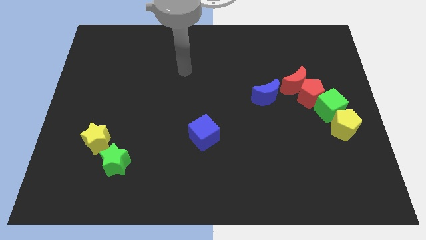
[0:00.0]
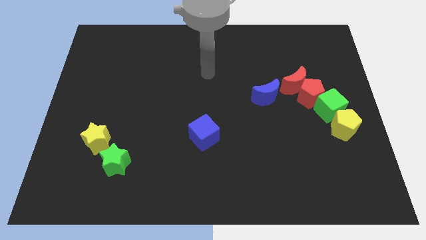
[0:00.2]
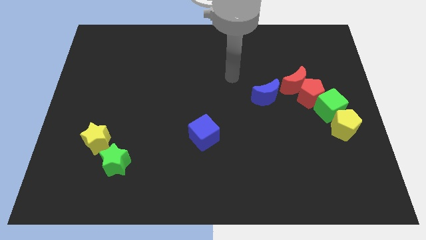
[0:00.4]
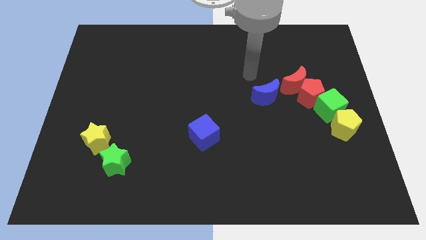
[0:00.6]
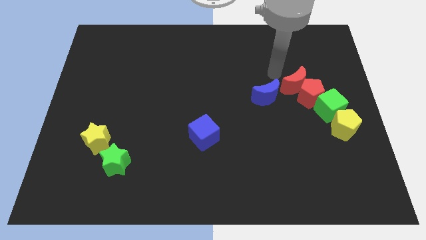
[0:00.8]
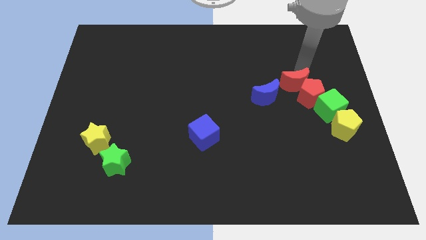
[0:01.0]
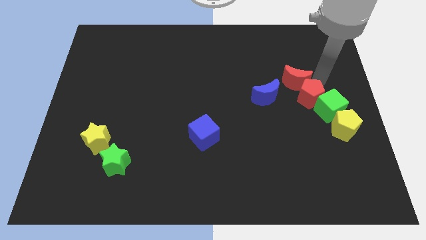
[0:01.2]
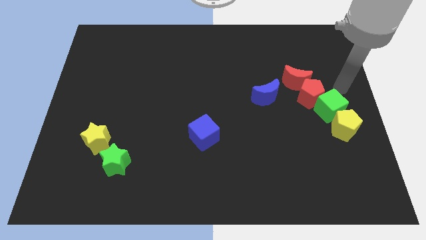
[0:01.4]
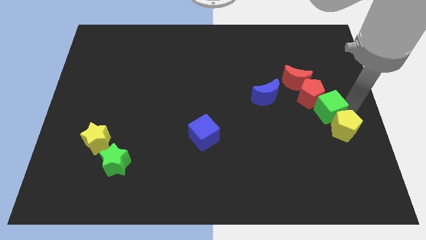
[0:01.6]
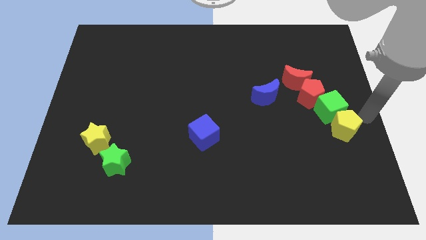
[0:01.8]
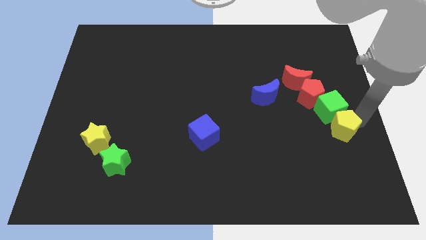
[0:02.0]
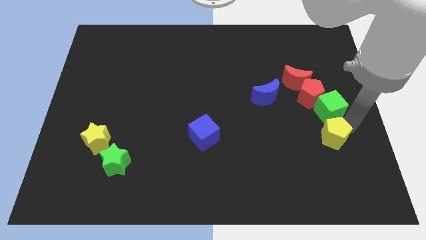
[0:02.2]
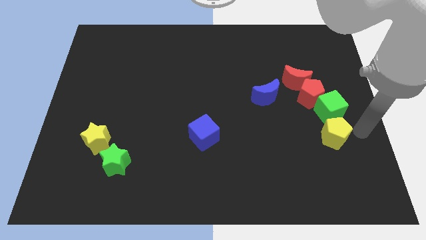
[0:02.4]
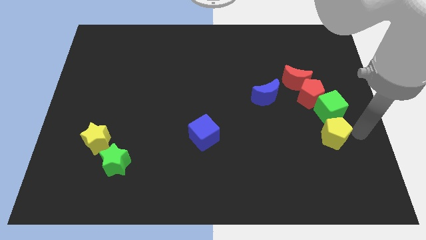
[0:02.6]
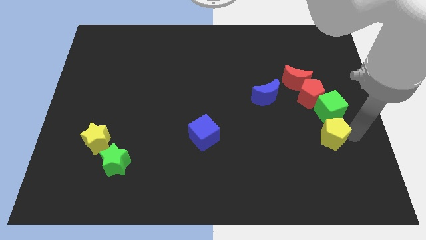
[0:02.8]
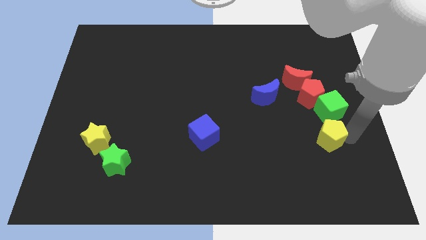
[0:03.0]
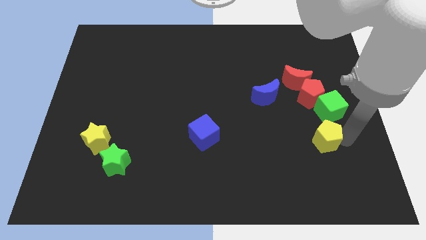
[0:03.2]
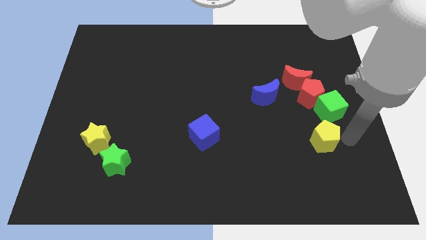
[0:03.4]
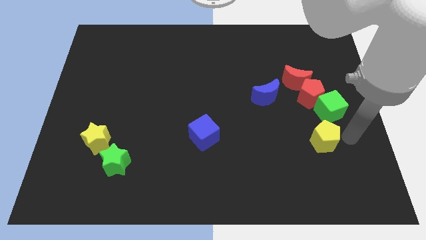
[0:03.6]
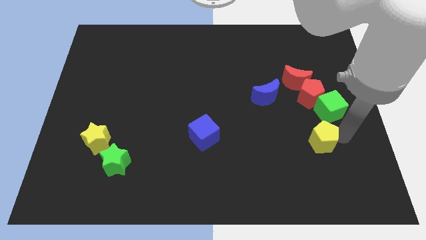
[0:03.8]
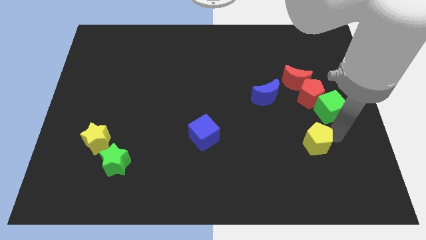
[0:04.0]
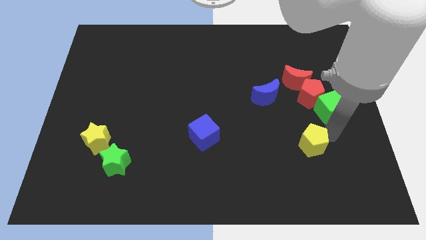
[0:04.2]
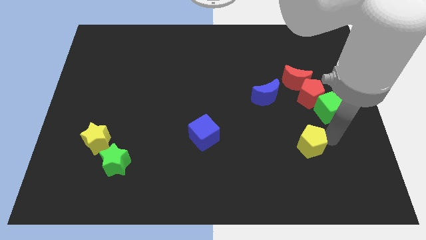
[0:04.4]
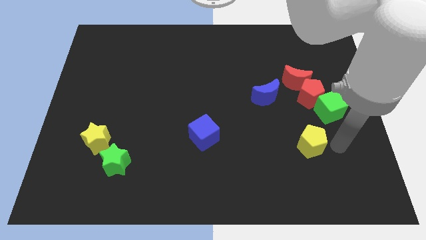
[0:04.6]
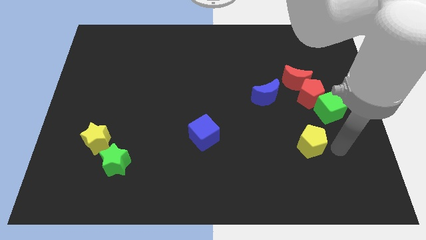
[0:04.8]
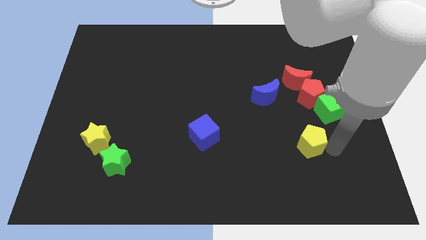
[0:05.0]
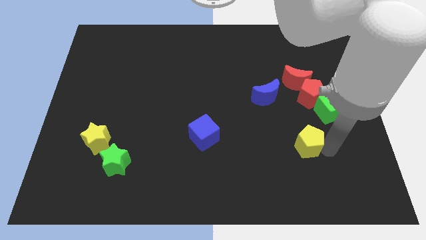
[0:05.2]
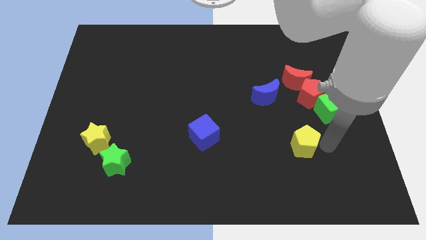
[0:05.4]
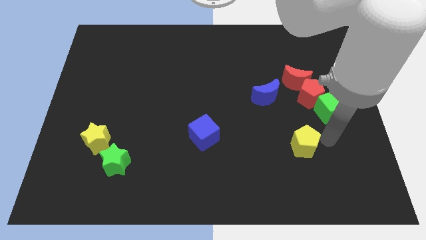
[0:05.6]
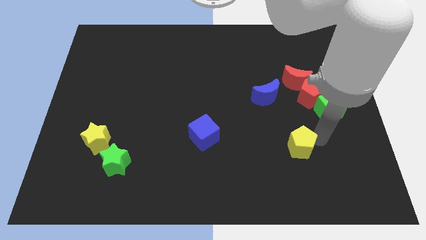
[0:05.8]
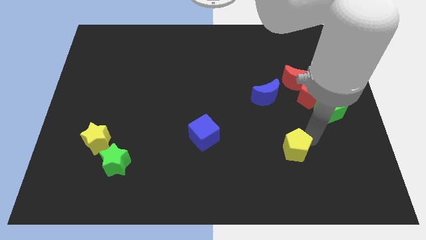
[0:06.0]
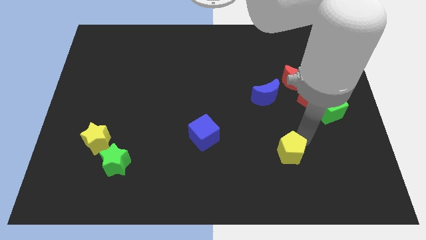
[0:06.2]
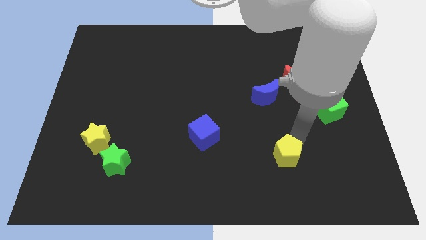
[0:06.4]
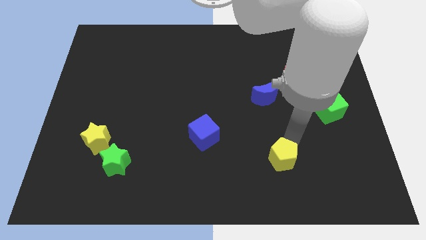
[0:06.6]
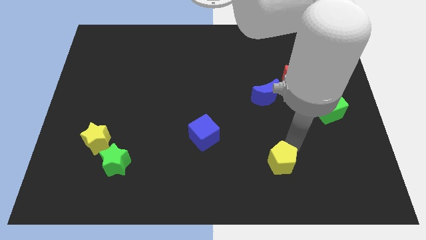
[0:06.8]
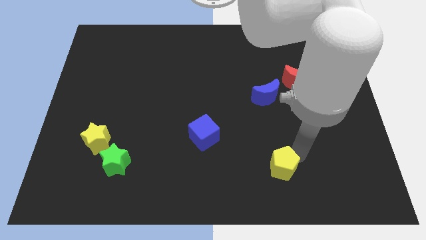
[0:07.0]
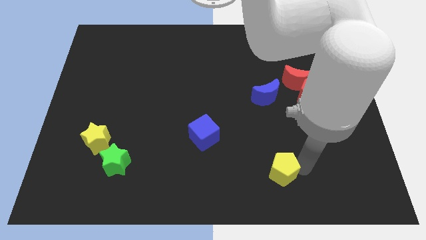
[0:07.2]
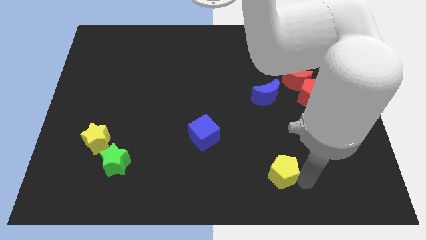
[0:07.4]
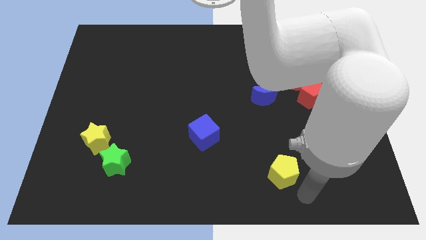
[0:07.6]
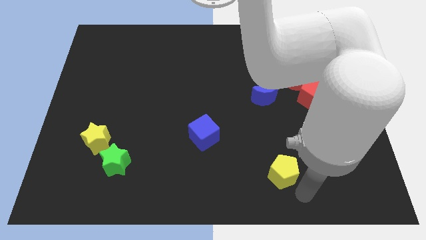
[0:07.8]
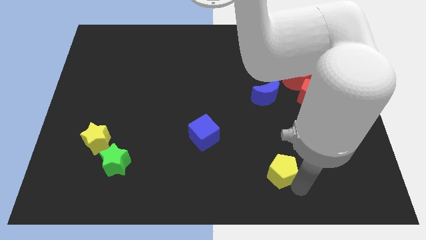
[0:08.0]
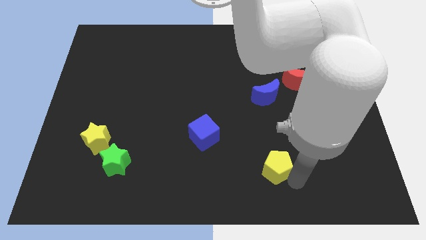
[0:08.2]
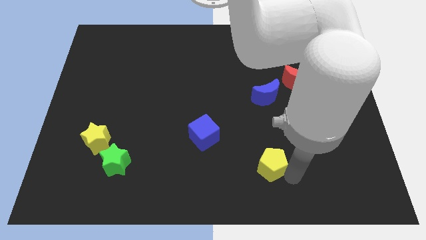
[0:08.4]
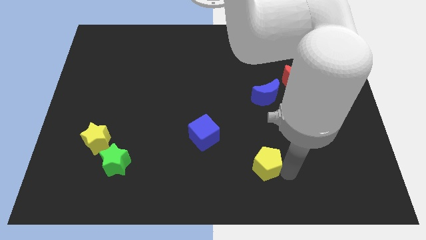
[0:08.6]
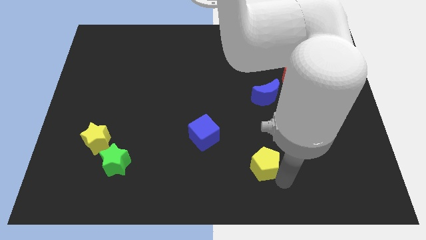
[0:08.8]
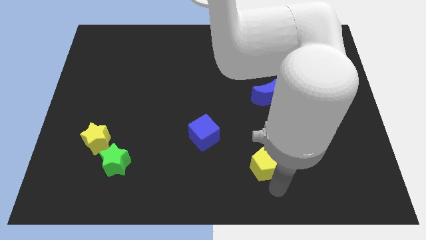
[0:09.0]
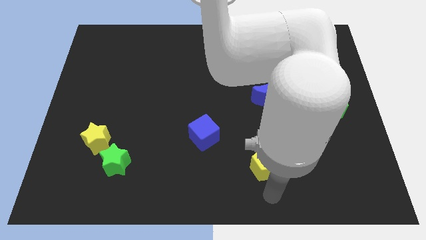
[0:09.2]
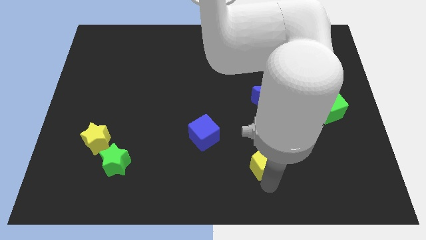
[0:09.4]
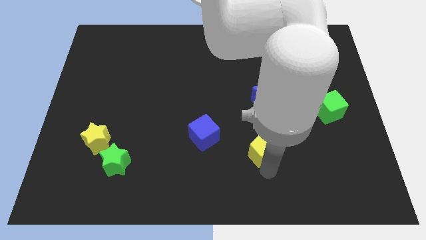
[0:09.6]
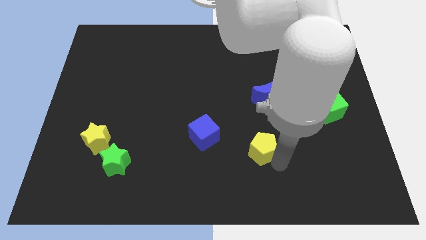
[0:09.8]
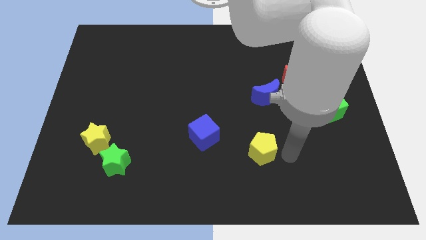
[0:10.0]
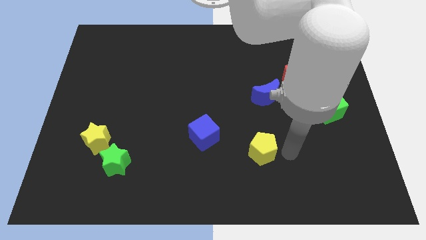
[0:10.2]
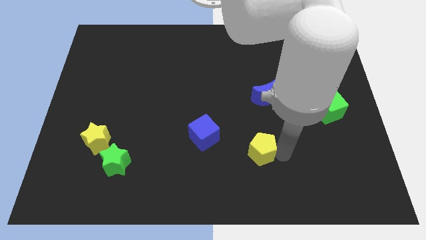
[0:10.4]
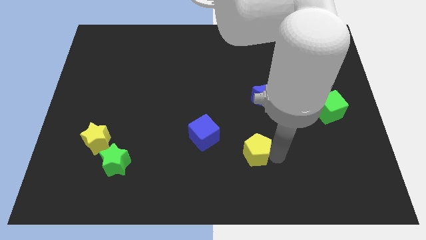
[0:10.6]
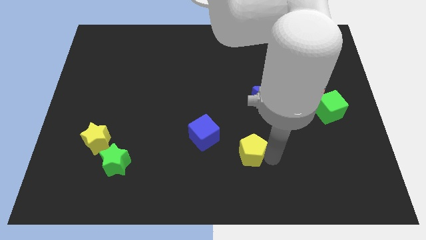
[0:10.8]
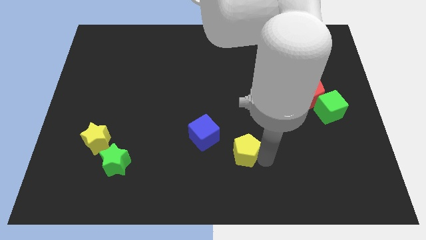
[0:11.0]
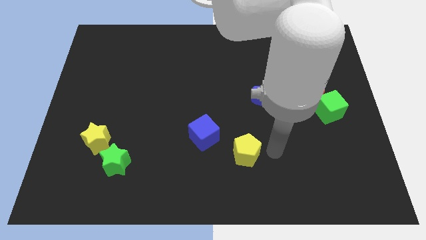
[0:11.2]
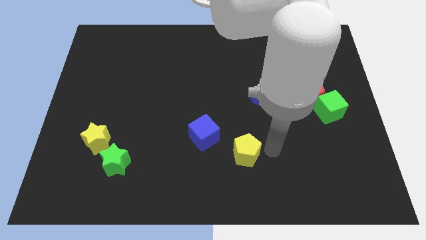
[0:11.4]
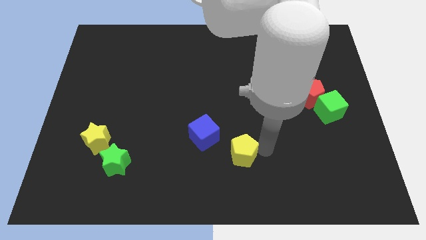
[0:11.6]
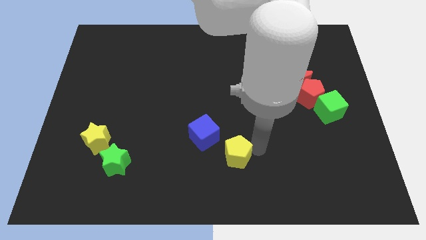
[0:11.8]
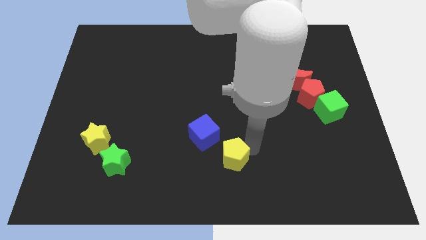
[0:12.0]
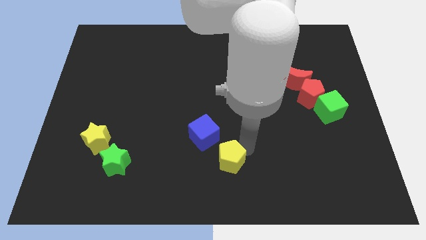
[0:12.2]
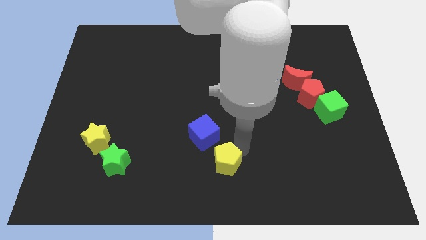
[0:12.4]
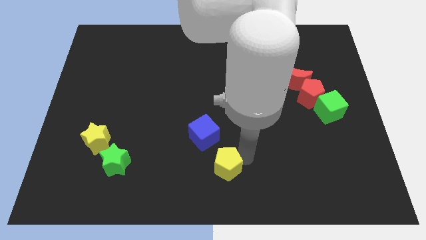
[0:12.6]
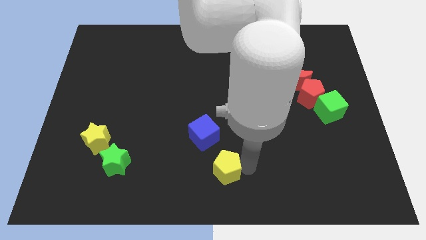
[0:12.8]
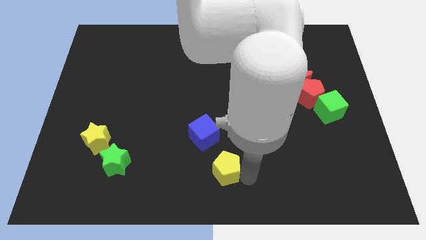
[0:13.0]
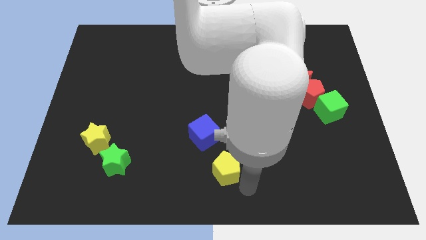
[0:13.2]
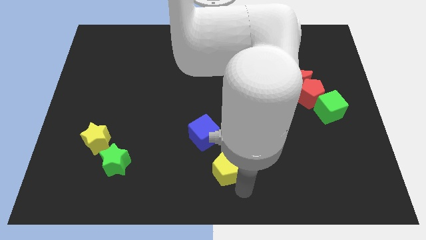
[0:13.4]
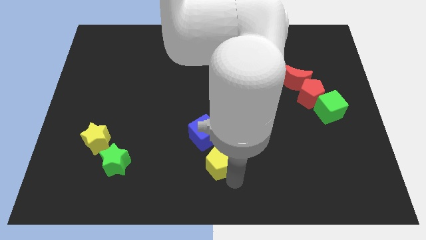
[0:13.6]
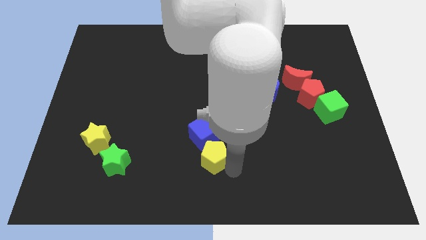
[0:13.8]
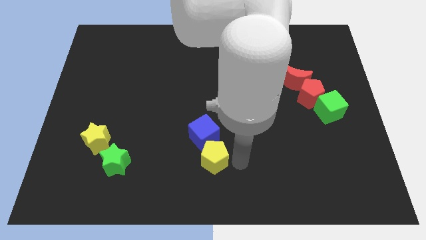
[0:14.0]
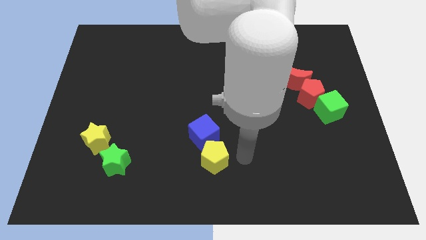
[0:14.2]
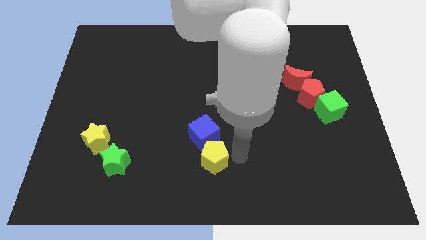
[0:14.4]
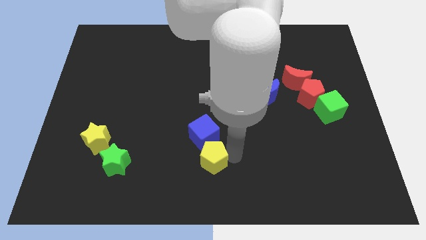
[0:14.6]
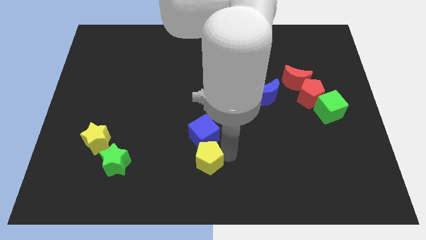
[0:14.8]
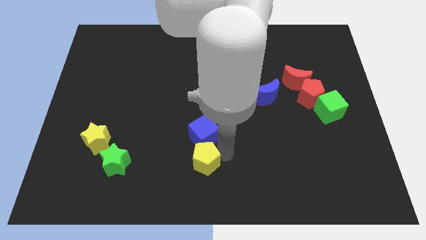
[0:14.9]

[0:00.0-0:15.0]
push the yellow pentagon diagonally down and to the left of the blue cube
